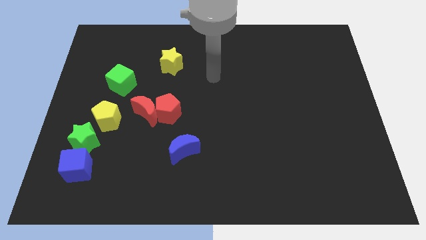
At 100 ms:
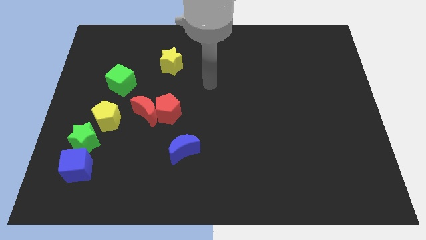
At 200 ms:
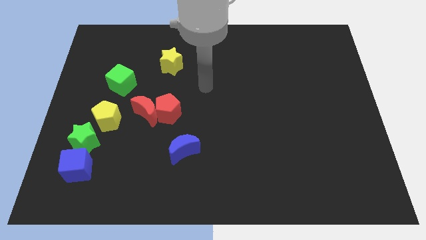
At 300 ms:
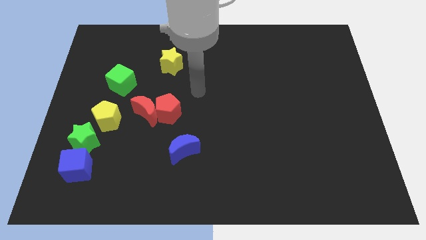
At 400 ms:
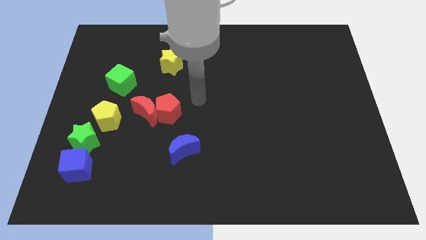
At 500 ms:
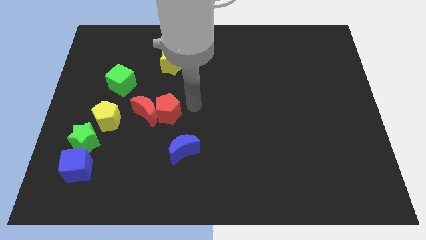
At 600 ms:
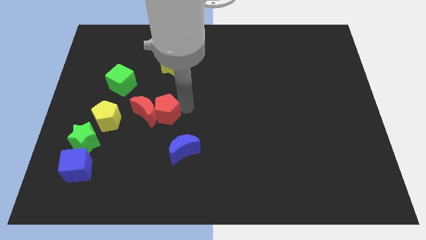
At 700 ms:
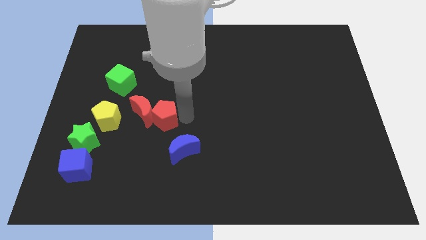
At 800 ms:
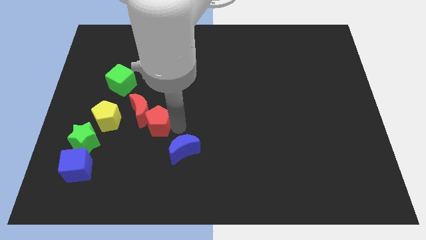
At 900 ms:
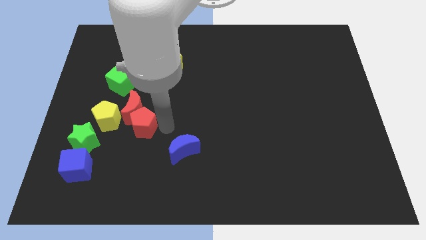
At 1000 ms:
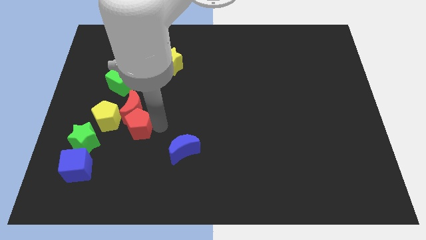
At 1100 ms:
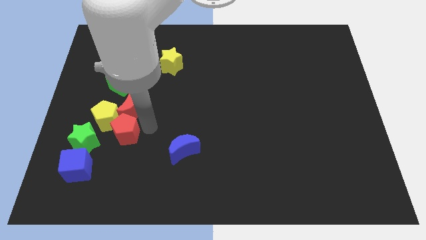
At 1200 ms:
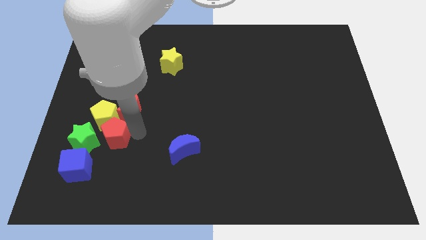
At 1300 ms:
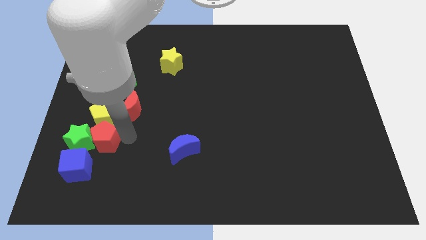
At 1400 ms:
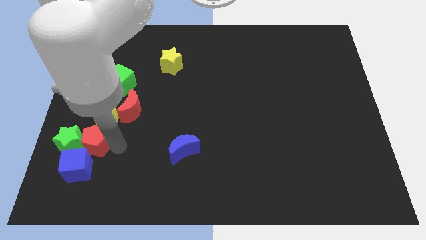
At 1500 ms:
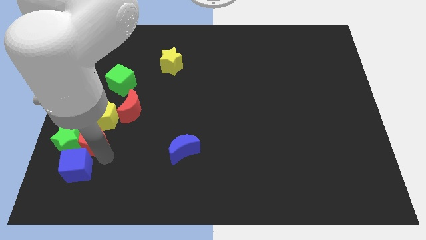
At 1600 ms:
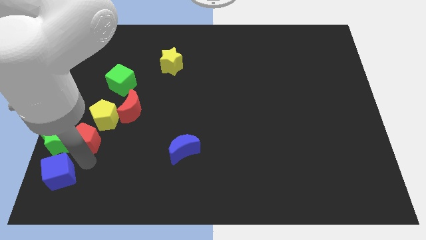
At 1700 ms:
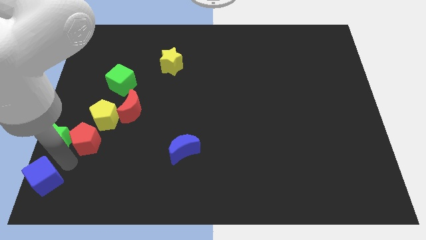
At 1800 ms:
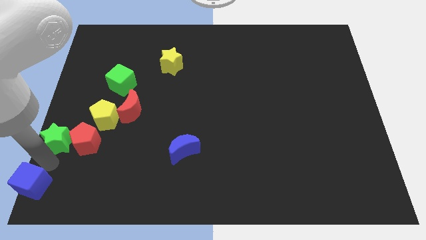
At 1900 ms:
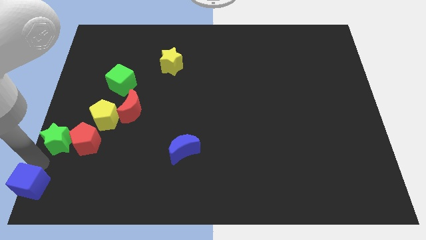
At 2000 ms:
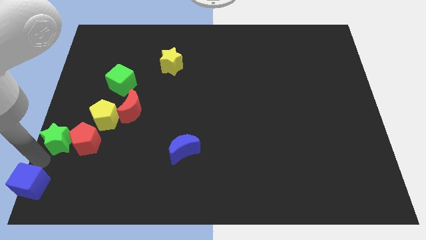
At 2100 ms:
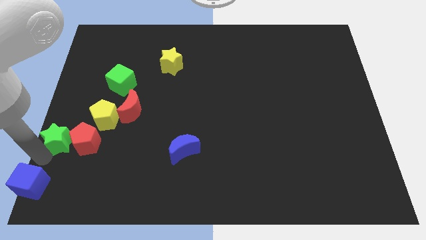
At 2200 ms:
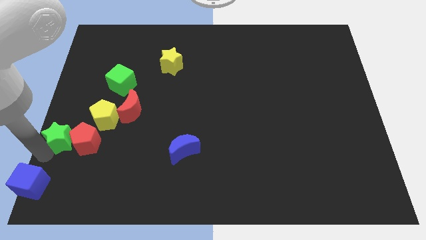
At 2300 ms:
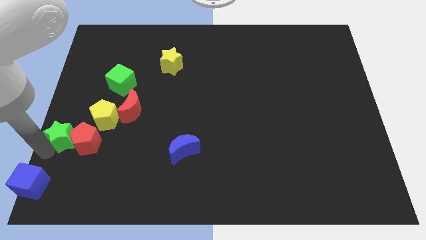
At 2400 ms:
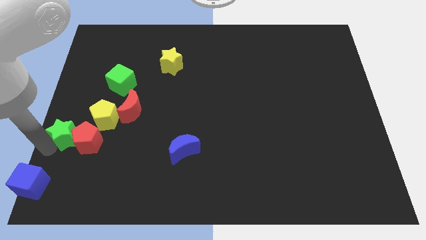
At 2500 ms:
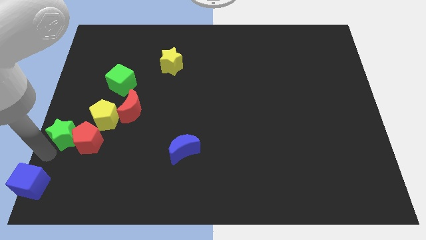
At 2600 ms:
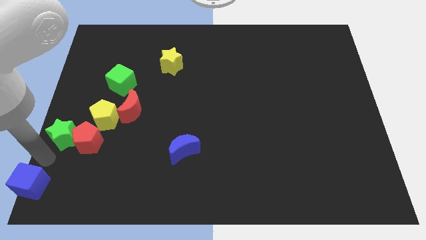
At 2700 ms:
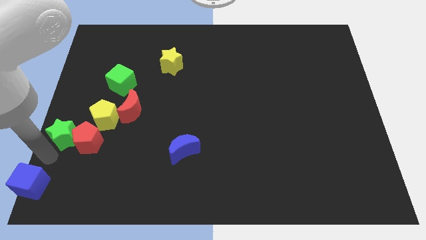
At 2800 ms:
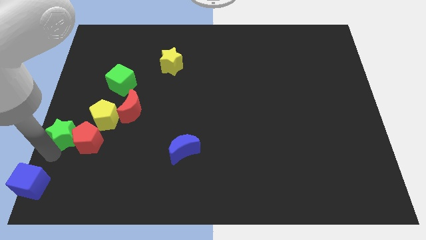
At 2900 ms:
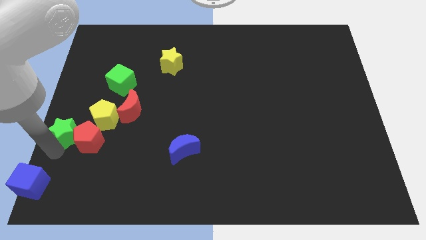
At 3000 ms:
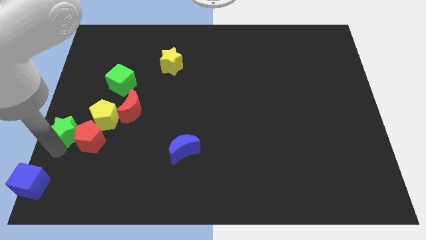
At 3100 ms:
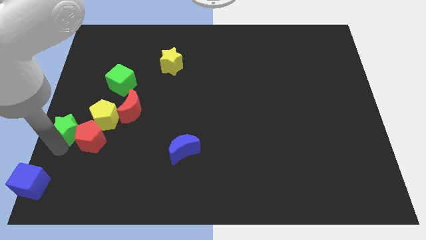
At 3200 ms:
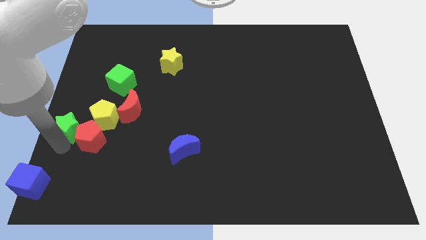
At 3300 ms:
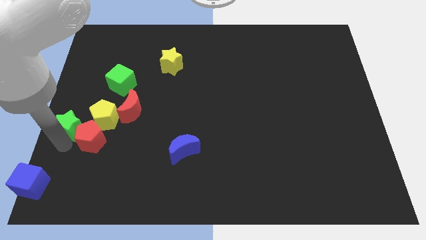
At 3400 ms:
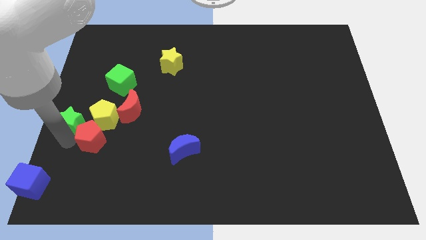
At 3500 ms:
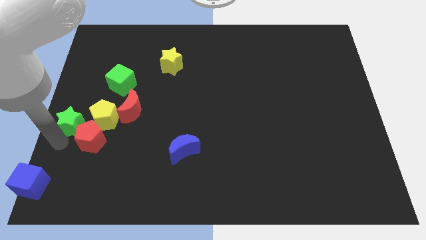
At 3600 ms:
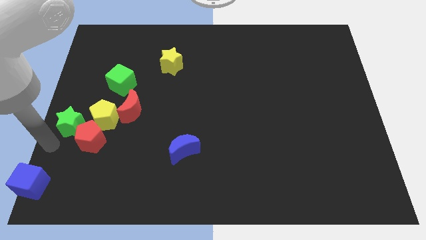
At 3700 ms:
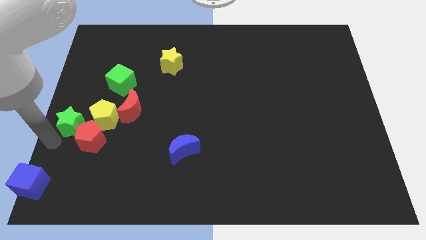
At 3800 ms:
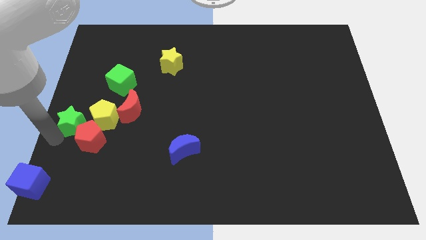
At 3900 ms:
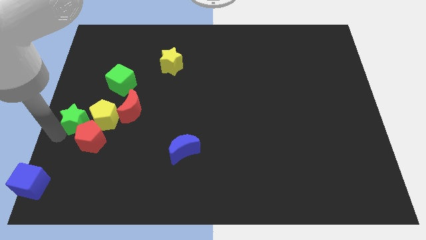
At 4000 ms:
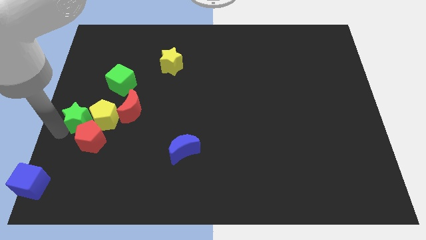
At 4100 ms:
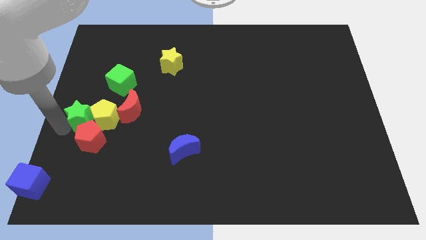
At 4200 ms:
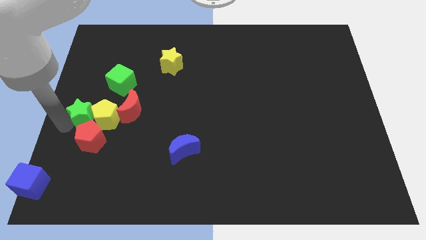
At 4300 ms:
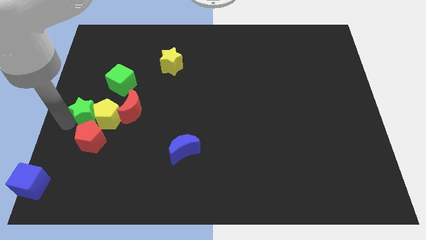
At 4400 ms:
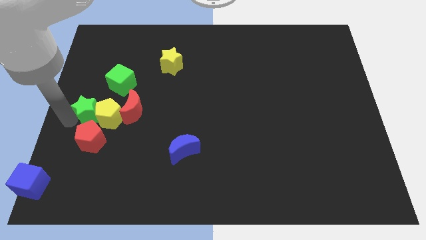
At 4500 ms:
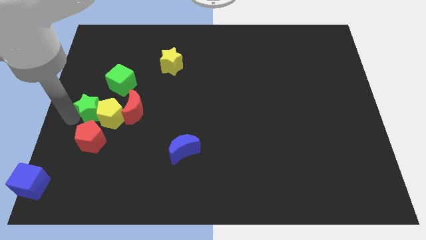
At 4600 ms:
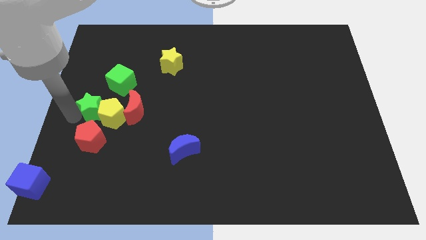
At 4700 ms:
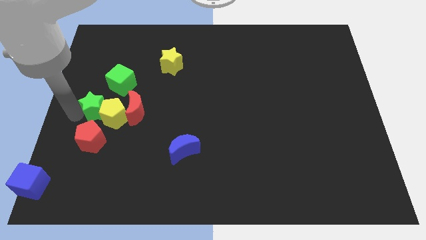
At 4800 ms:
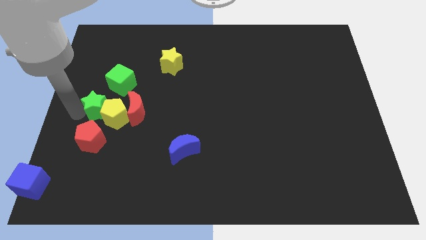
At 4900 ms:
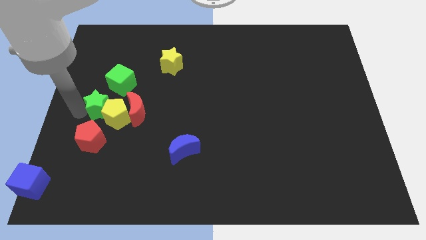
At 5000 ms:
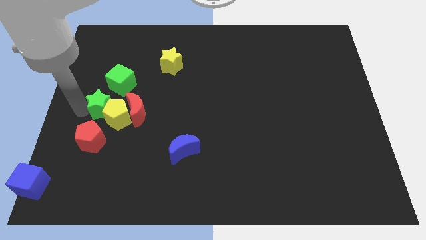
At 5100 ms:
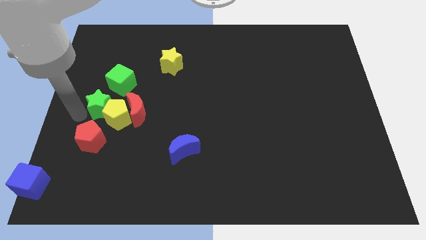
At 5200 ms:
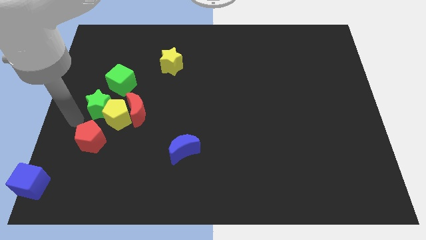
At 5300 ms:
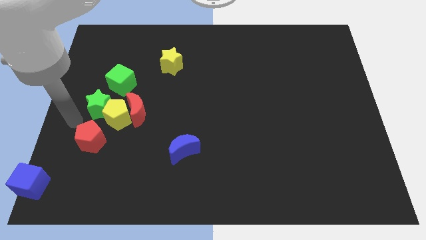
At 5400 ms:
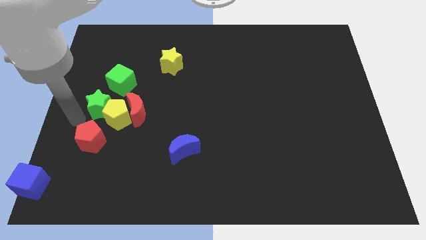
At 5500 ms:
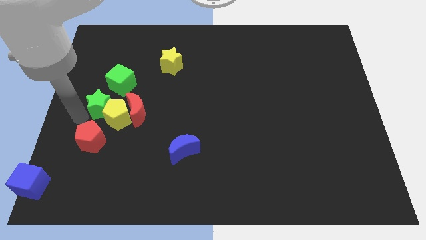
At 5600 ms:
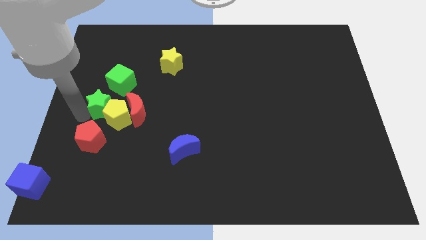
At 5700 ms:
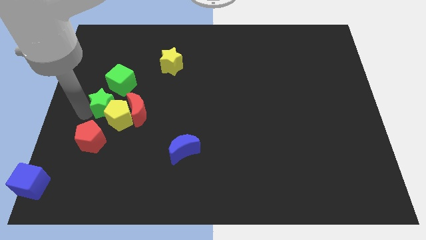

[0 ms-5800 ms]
slide the green star a bit up and to the right diagonally

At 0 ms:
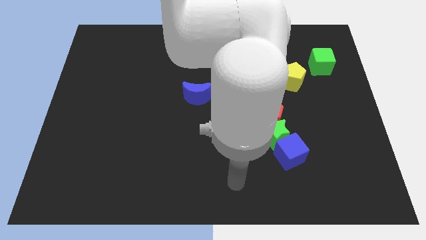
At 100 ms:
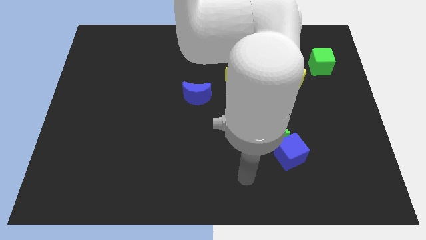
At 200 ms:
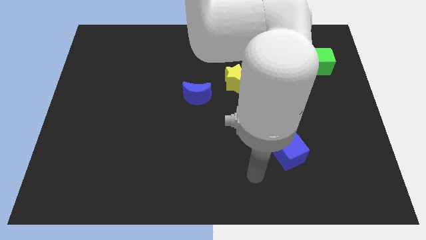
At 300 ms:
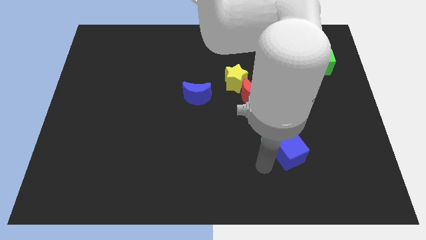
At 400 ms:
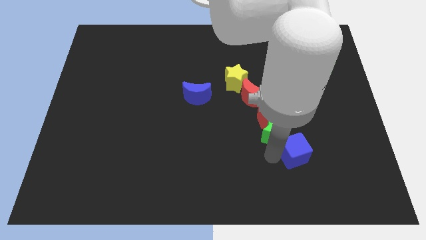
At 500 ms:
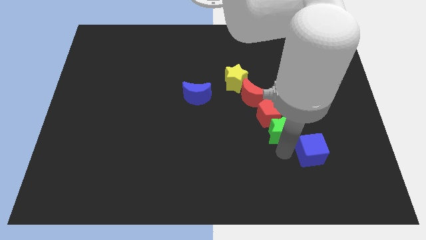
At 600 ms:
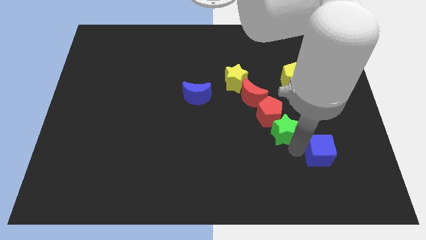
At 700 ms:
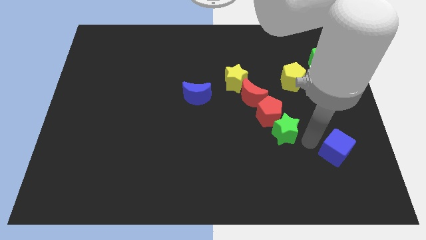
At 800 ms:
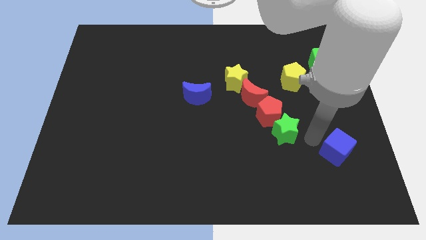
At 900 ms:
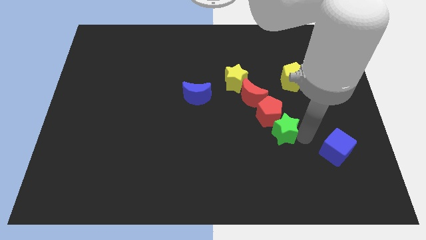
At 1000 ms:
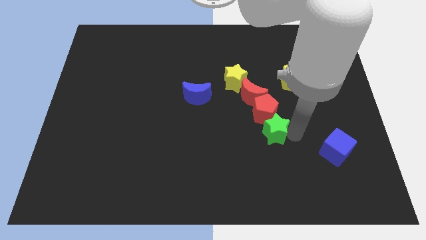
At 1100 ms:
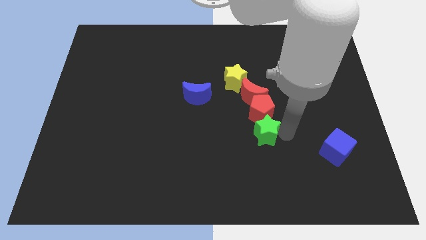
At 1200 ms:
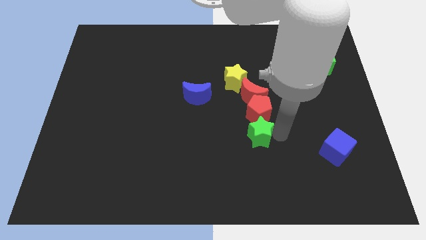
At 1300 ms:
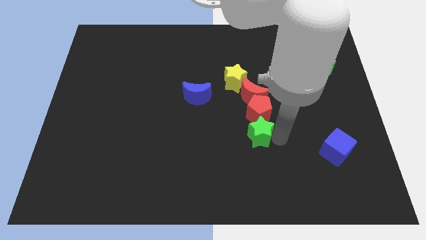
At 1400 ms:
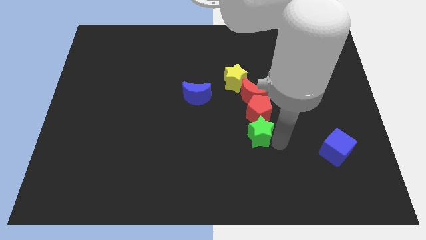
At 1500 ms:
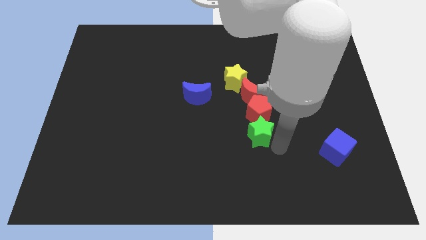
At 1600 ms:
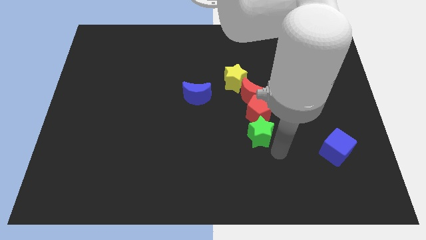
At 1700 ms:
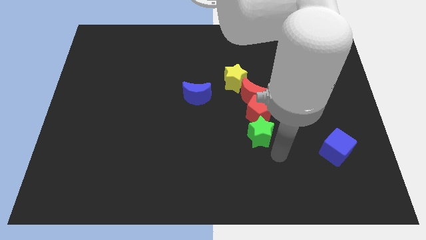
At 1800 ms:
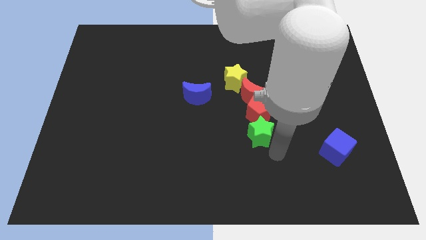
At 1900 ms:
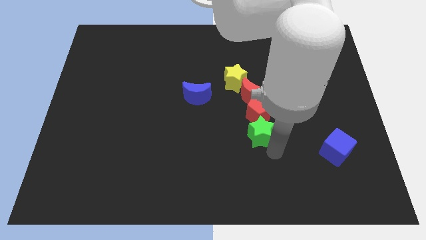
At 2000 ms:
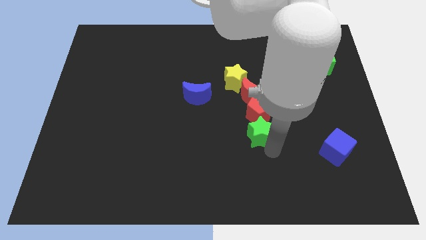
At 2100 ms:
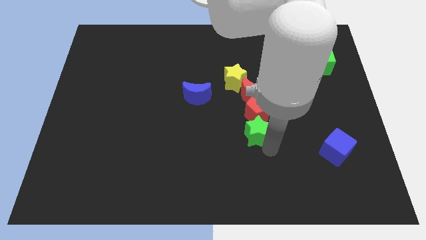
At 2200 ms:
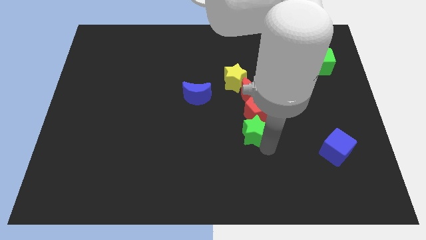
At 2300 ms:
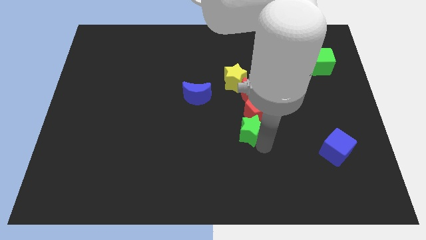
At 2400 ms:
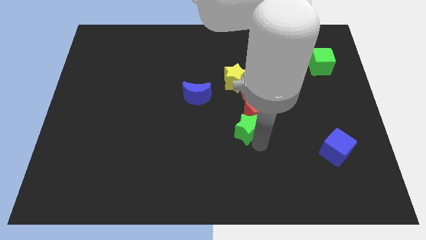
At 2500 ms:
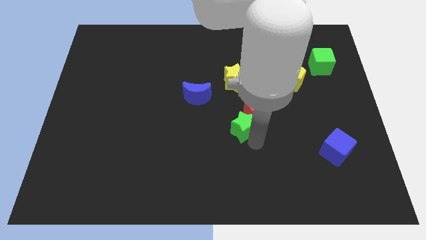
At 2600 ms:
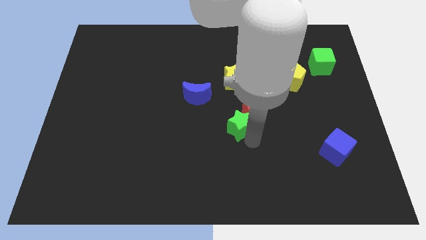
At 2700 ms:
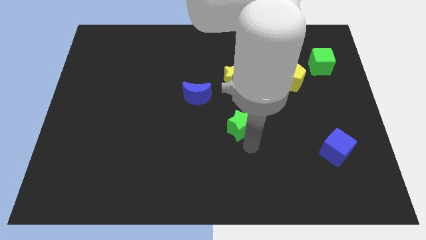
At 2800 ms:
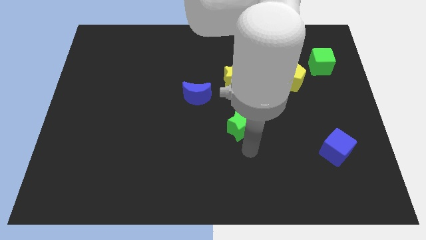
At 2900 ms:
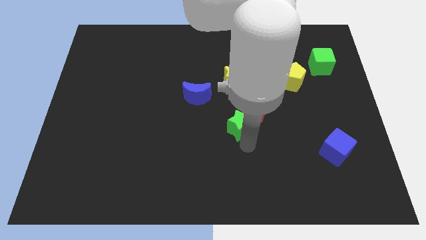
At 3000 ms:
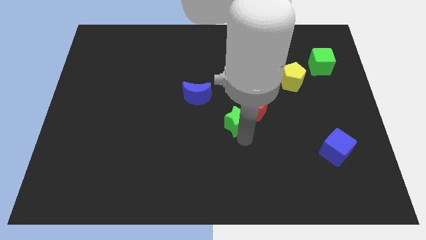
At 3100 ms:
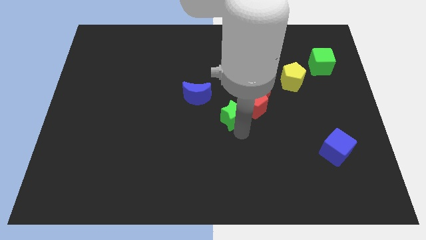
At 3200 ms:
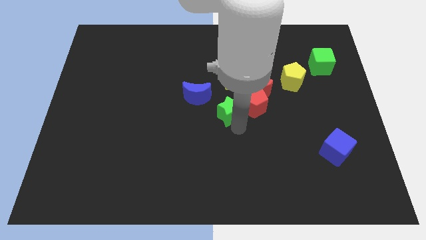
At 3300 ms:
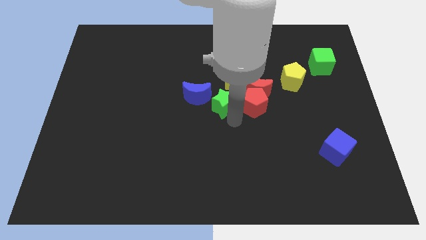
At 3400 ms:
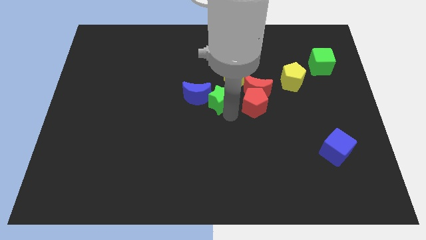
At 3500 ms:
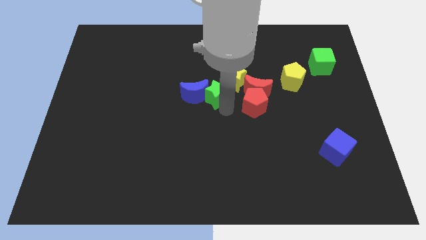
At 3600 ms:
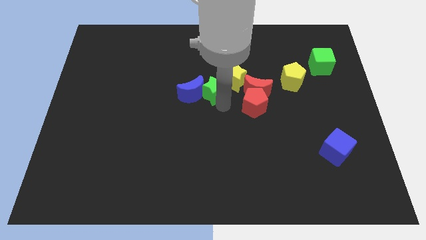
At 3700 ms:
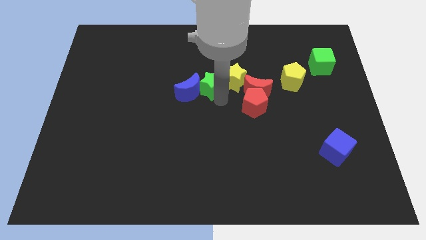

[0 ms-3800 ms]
slide the green star diagonally up and to the left
